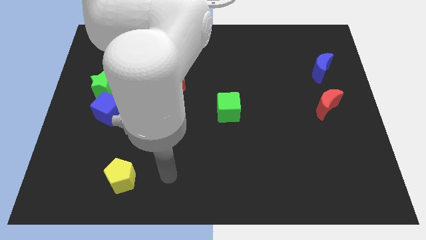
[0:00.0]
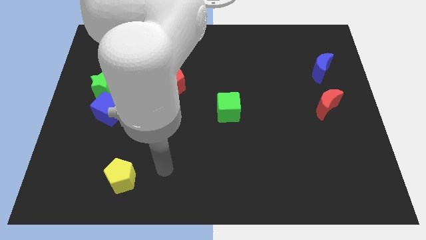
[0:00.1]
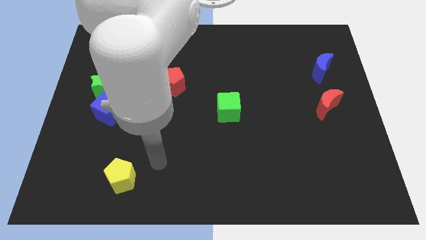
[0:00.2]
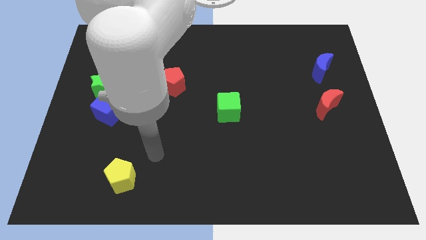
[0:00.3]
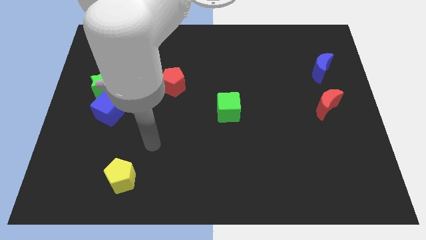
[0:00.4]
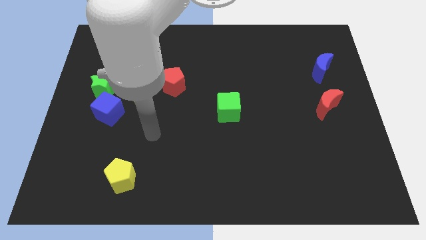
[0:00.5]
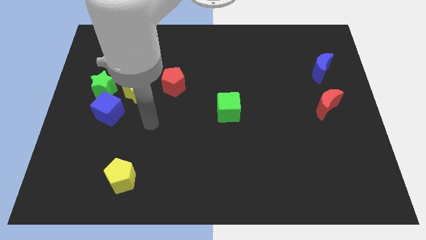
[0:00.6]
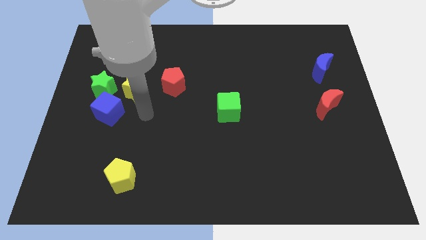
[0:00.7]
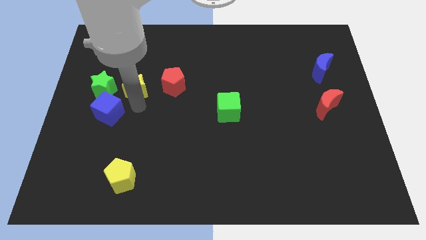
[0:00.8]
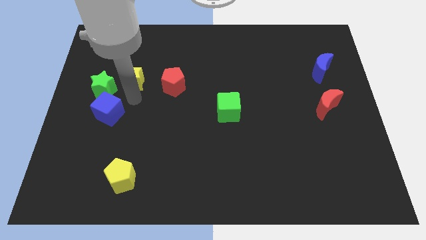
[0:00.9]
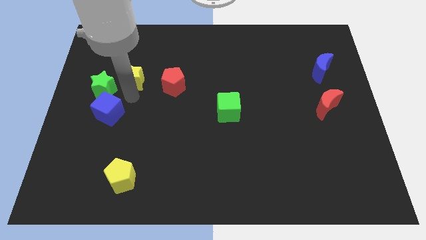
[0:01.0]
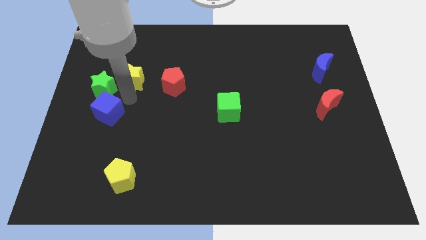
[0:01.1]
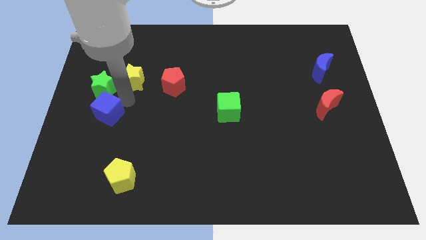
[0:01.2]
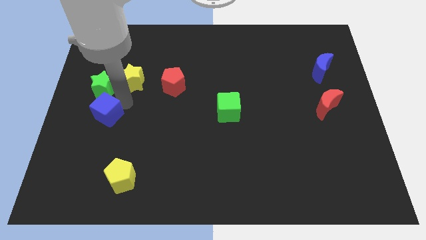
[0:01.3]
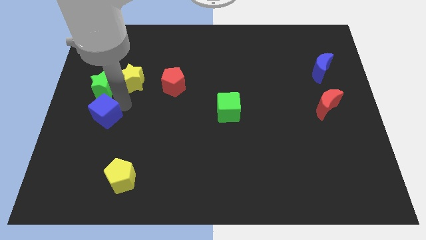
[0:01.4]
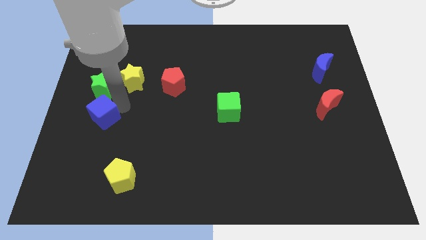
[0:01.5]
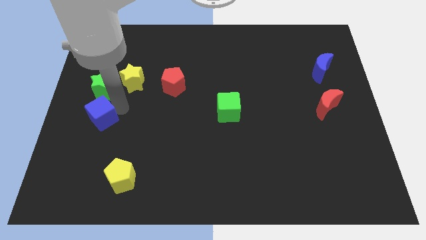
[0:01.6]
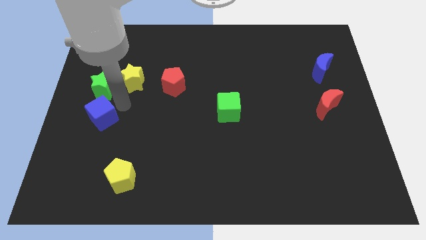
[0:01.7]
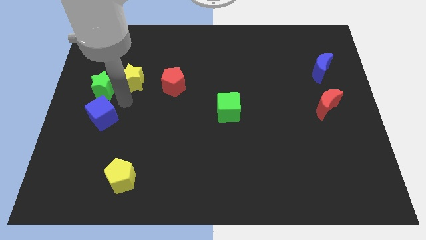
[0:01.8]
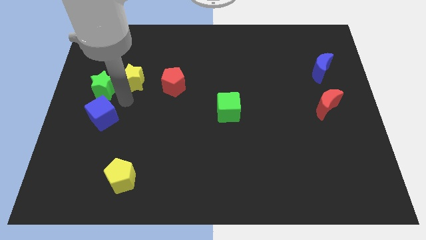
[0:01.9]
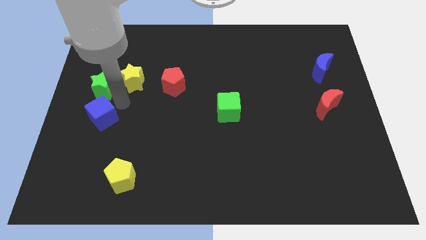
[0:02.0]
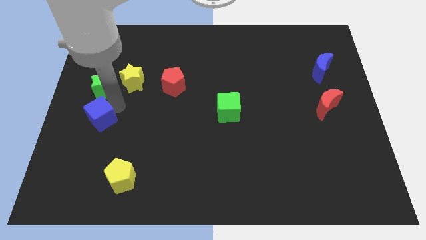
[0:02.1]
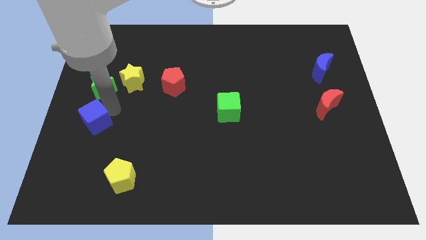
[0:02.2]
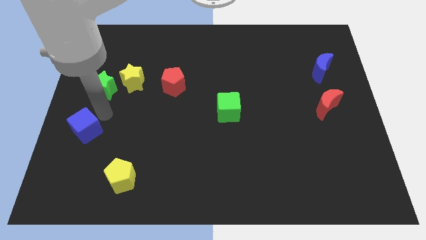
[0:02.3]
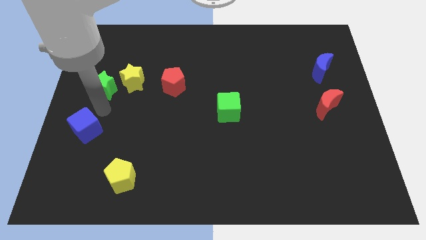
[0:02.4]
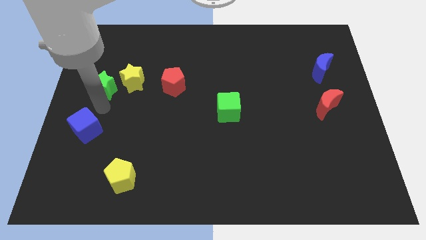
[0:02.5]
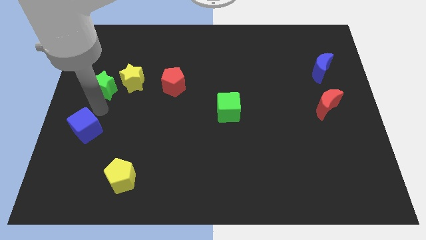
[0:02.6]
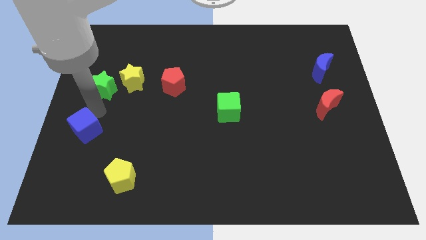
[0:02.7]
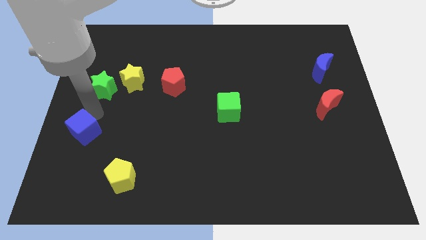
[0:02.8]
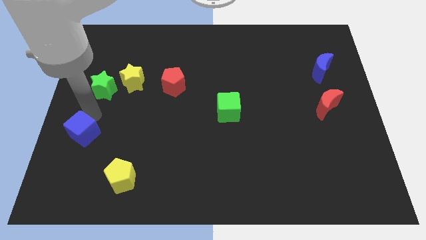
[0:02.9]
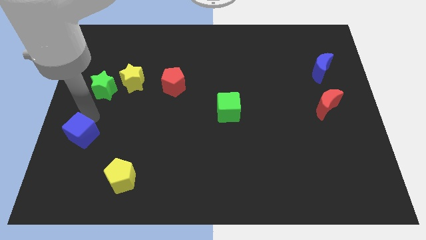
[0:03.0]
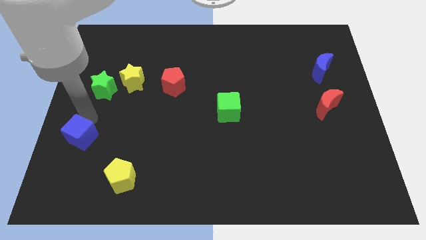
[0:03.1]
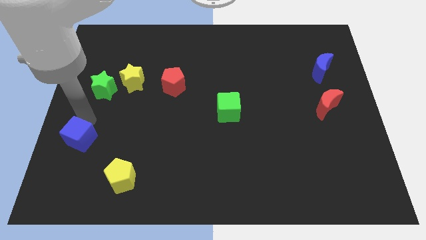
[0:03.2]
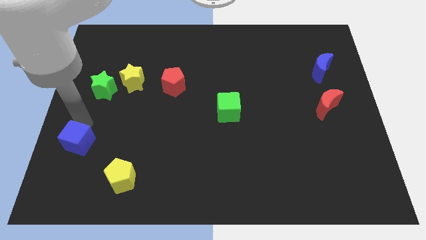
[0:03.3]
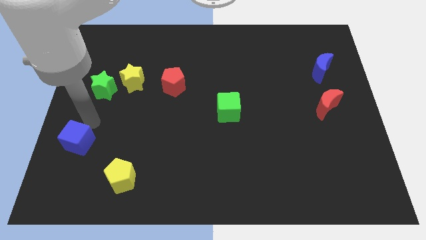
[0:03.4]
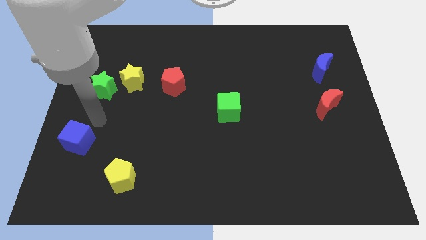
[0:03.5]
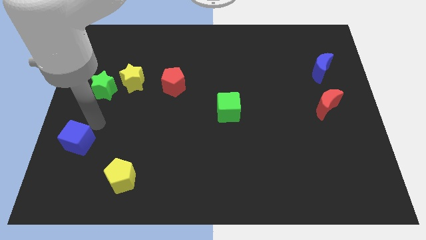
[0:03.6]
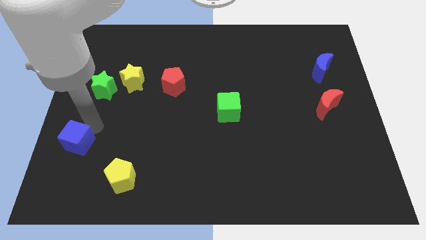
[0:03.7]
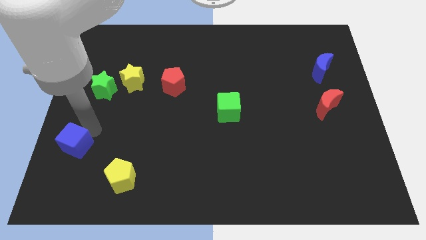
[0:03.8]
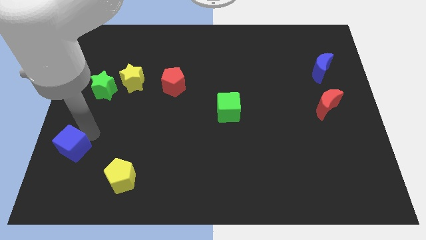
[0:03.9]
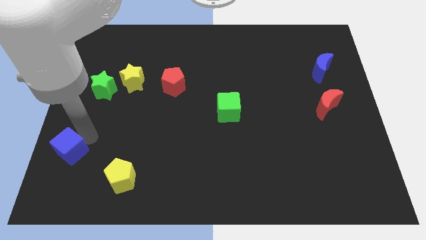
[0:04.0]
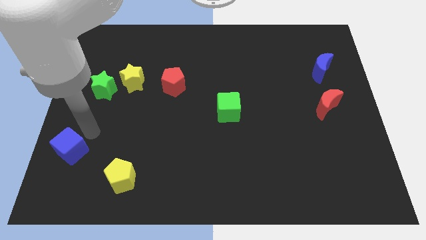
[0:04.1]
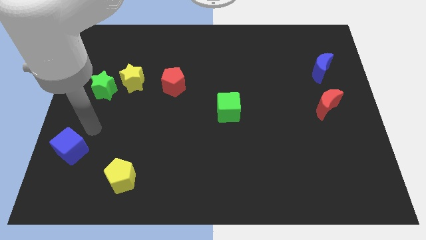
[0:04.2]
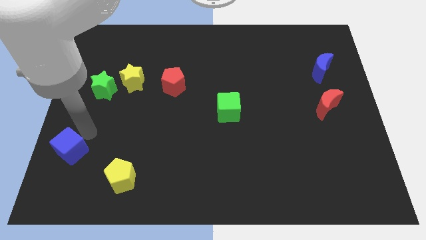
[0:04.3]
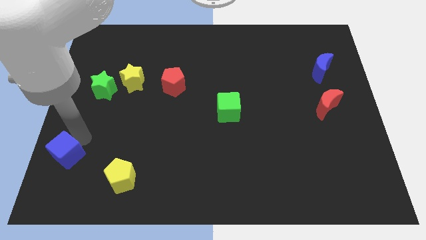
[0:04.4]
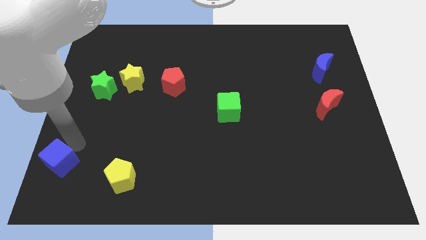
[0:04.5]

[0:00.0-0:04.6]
push the blue cube to the bottom left

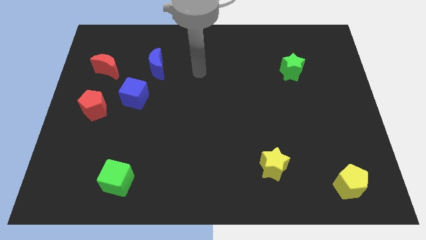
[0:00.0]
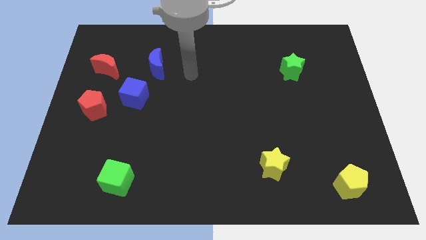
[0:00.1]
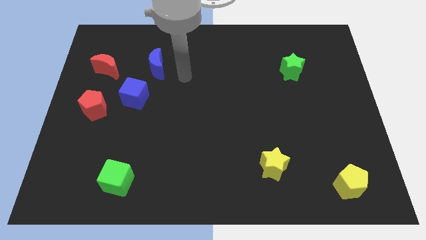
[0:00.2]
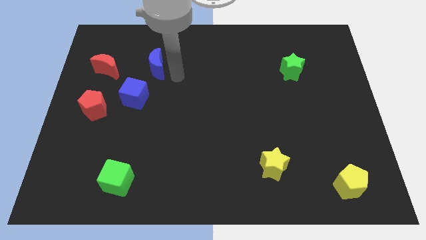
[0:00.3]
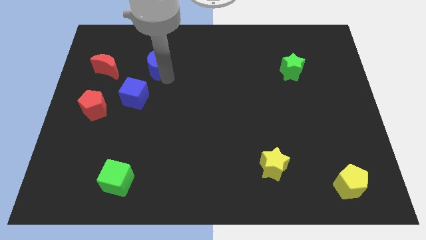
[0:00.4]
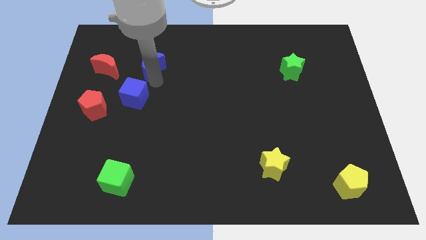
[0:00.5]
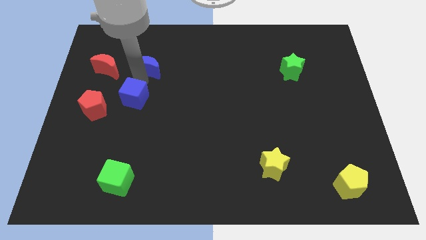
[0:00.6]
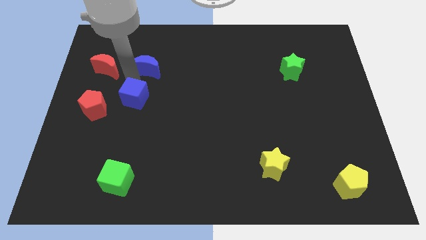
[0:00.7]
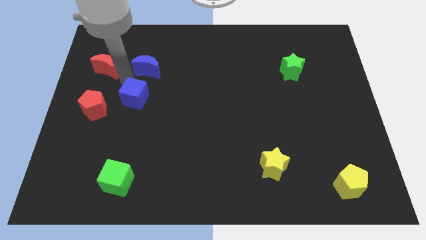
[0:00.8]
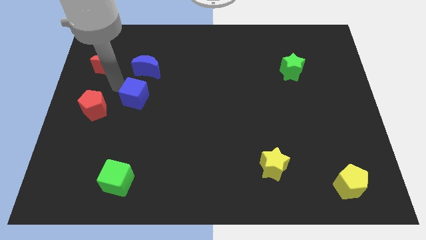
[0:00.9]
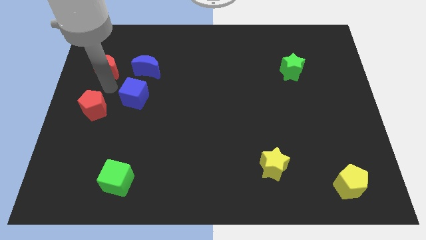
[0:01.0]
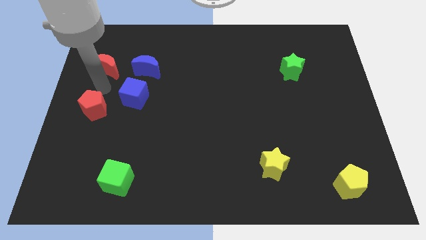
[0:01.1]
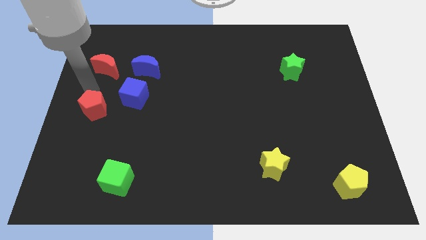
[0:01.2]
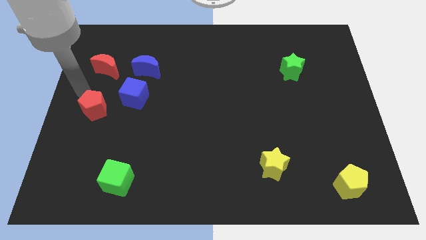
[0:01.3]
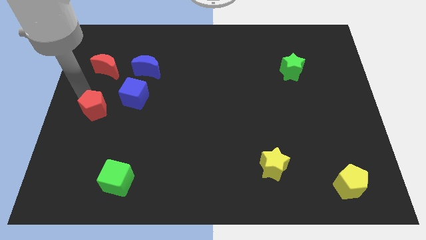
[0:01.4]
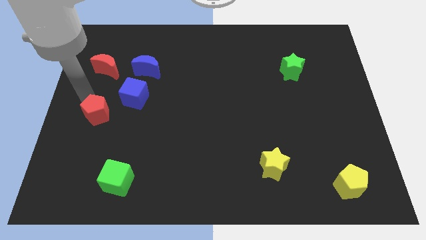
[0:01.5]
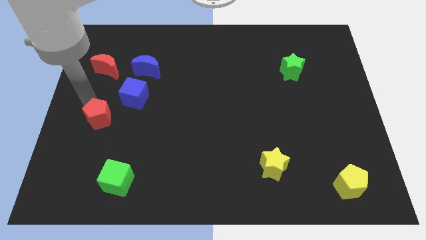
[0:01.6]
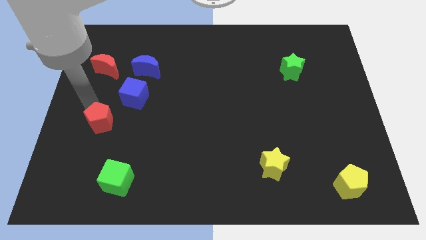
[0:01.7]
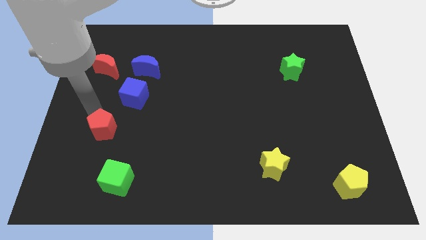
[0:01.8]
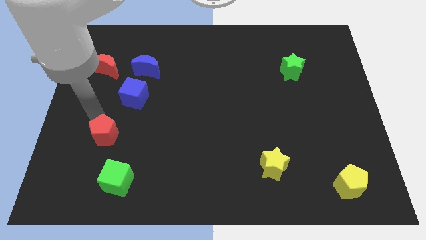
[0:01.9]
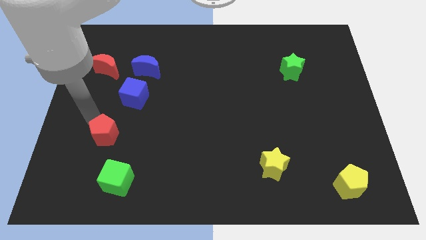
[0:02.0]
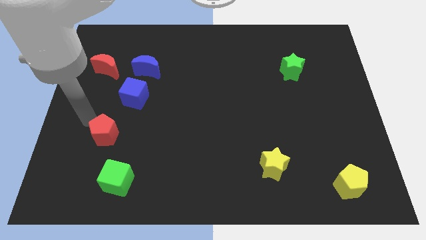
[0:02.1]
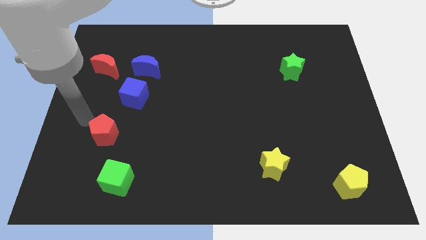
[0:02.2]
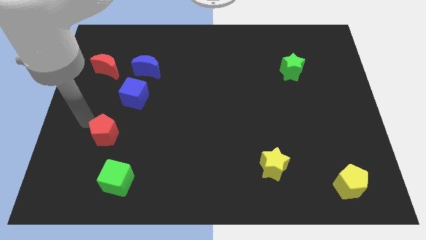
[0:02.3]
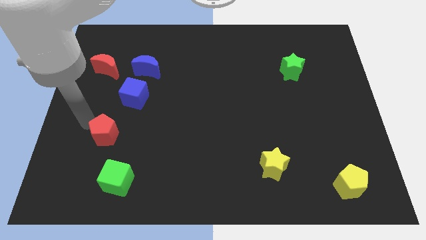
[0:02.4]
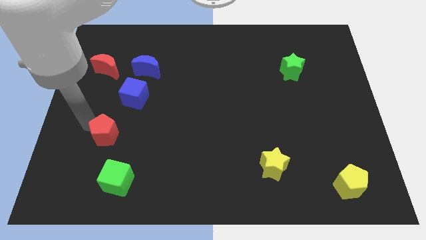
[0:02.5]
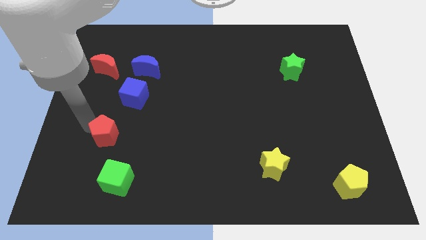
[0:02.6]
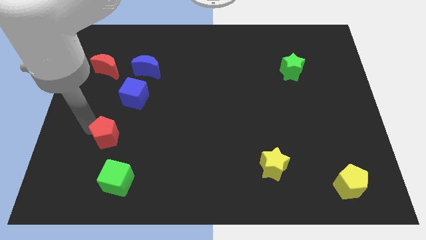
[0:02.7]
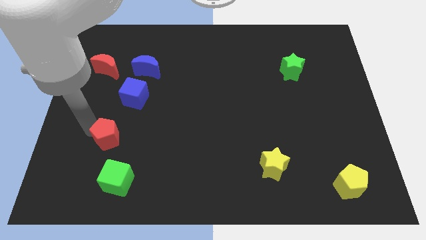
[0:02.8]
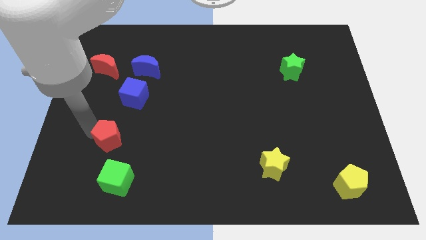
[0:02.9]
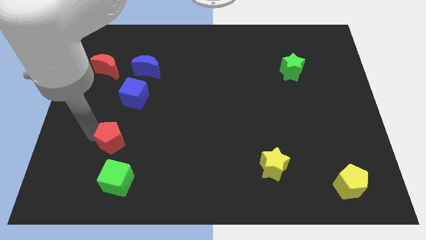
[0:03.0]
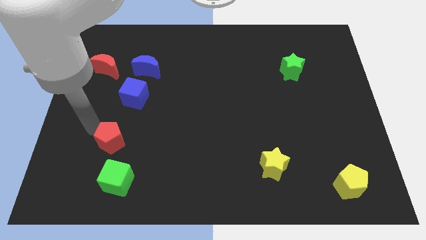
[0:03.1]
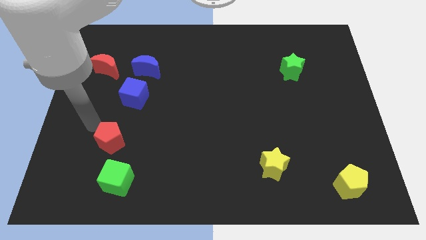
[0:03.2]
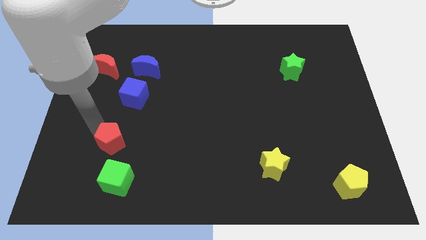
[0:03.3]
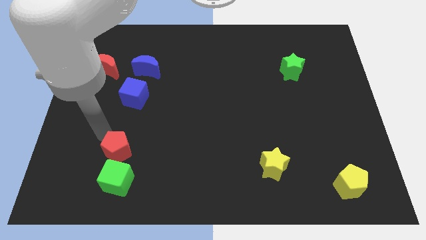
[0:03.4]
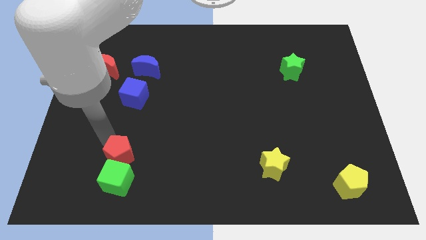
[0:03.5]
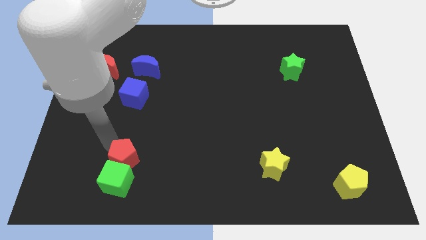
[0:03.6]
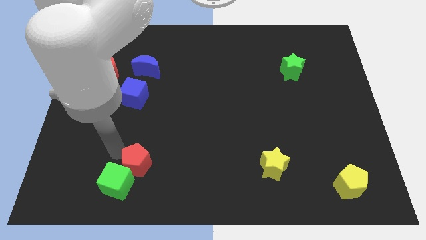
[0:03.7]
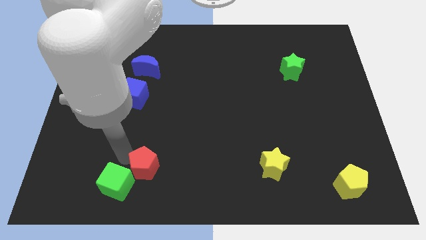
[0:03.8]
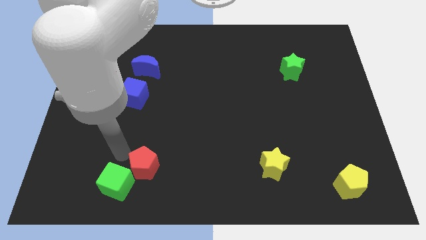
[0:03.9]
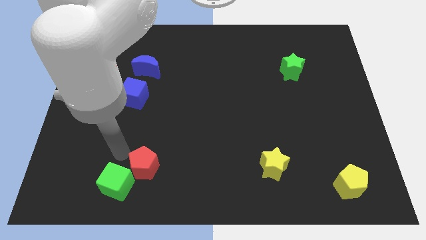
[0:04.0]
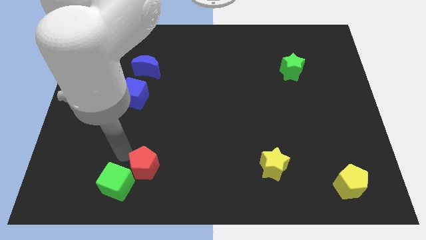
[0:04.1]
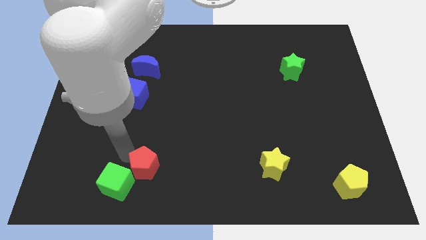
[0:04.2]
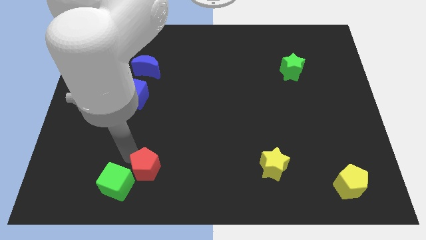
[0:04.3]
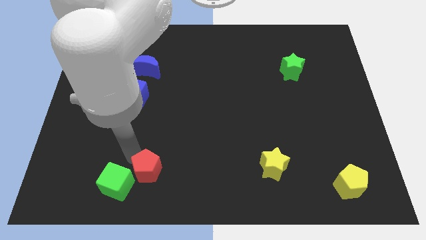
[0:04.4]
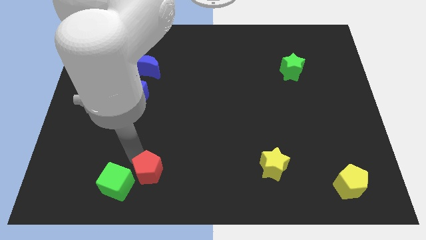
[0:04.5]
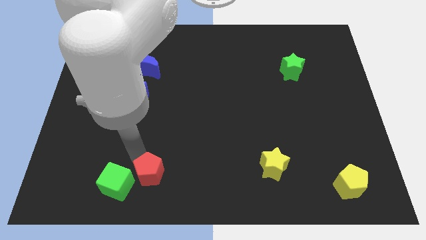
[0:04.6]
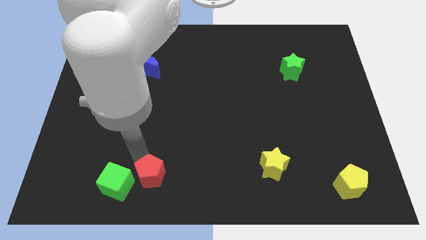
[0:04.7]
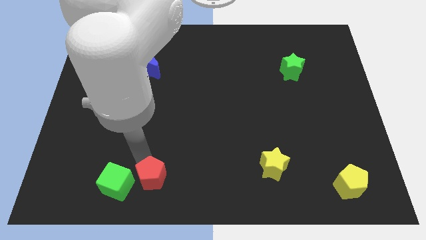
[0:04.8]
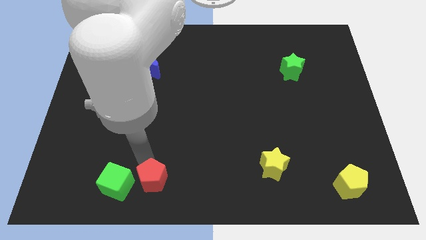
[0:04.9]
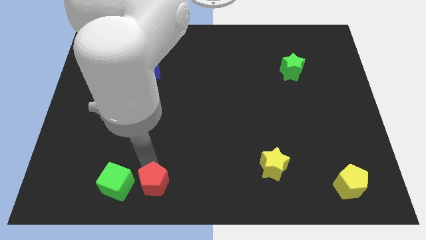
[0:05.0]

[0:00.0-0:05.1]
move the red pentagon to the bottom side
